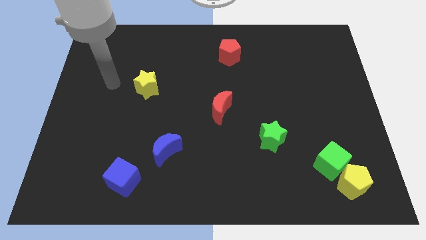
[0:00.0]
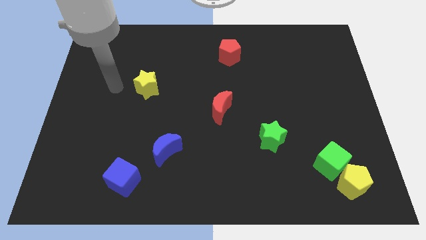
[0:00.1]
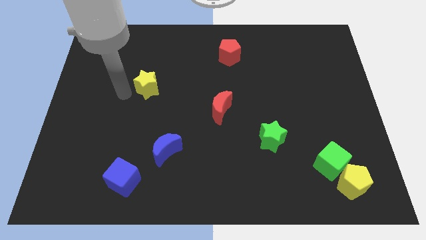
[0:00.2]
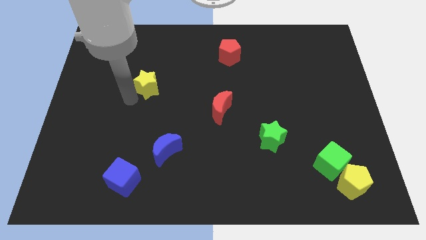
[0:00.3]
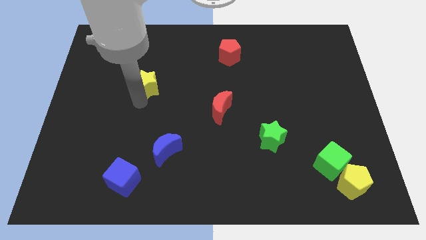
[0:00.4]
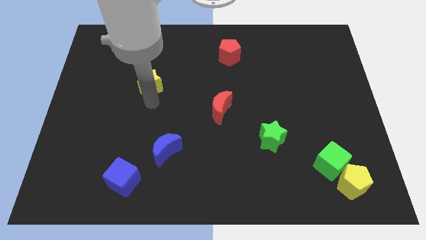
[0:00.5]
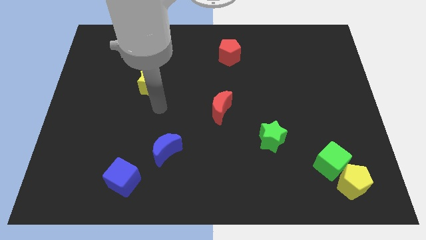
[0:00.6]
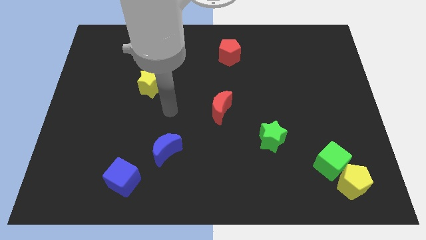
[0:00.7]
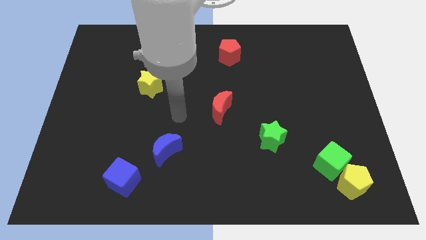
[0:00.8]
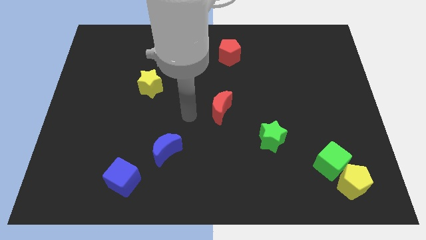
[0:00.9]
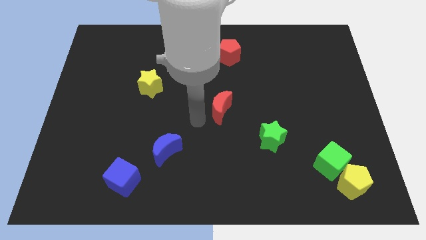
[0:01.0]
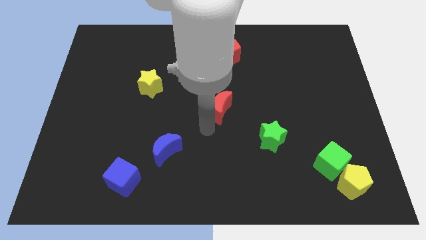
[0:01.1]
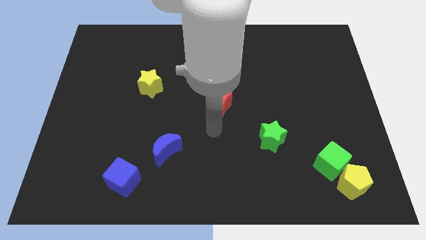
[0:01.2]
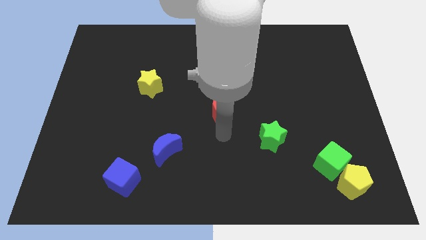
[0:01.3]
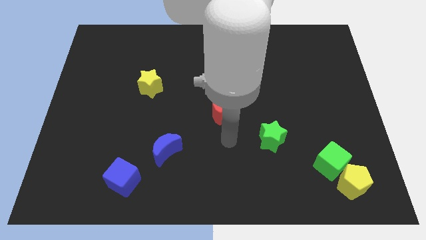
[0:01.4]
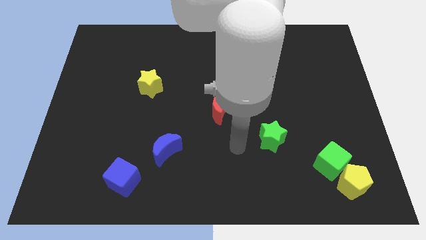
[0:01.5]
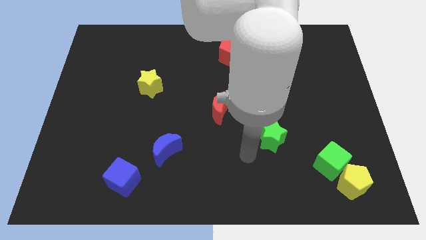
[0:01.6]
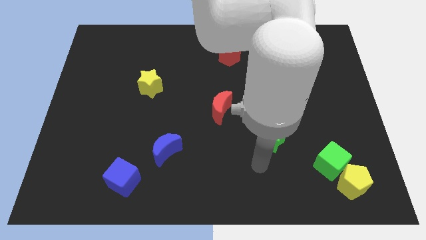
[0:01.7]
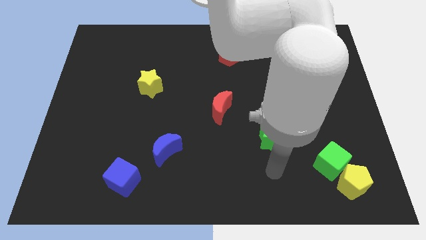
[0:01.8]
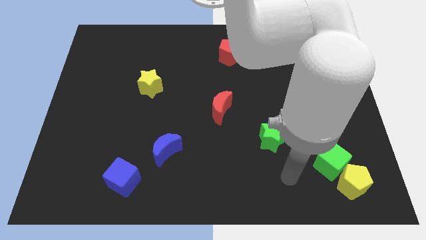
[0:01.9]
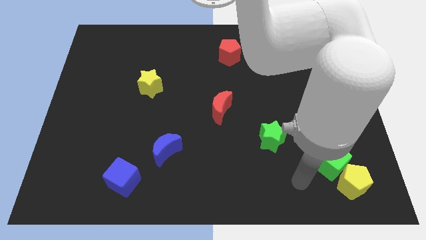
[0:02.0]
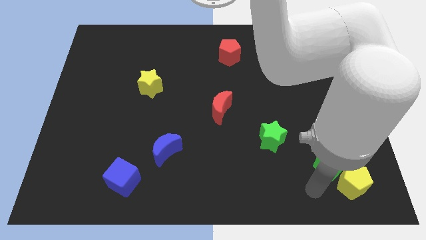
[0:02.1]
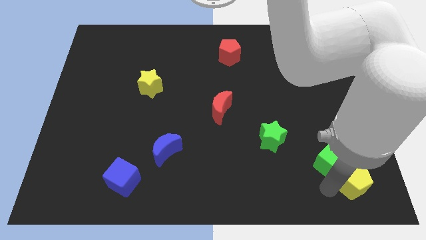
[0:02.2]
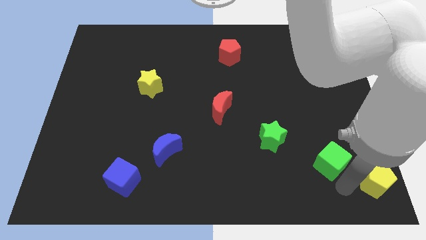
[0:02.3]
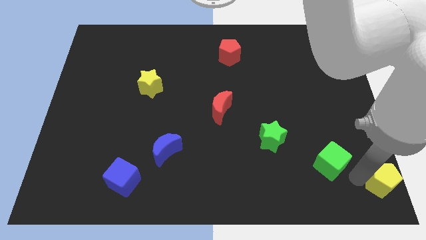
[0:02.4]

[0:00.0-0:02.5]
pull the green cube apart from the yellow pentagon

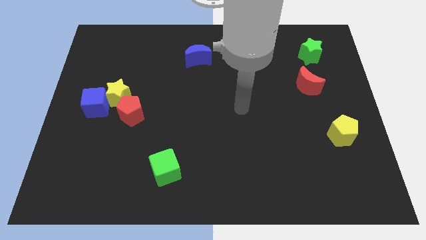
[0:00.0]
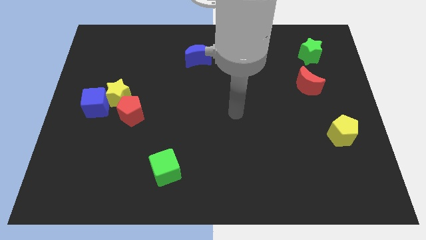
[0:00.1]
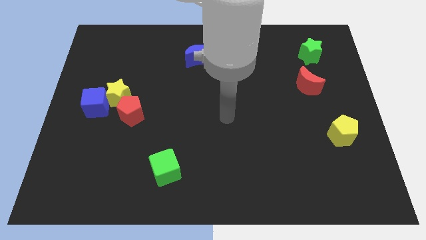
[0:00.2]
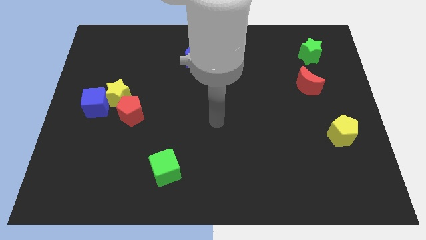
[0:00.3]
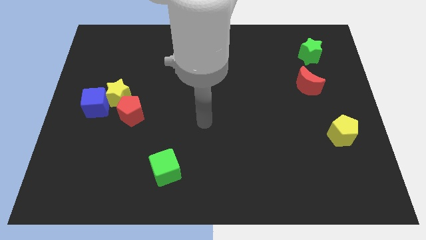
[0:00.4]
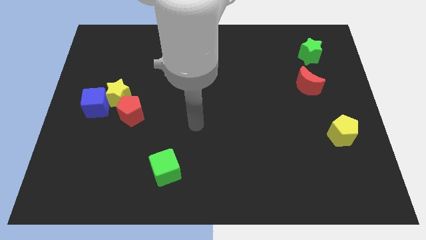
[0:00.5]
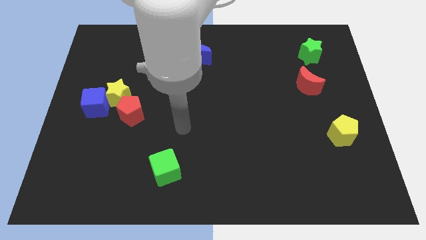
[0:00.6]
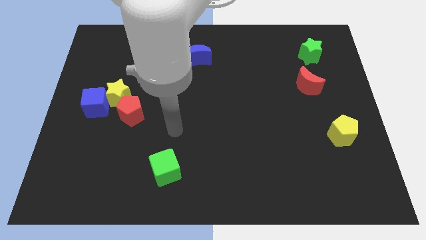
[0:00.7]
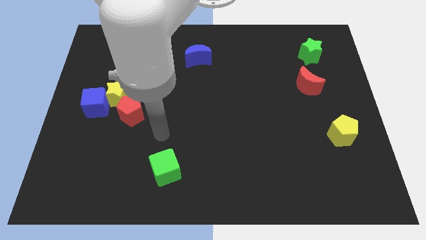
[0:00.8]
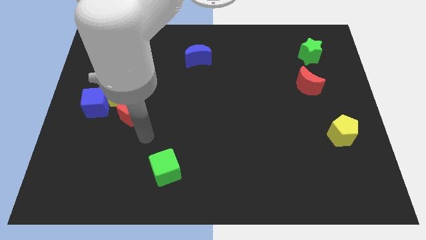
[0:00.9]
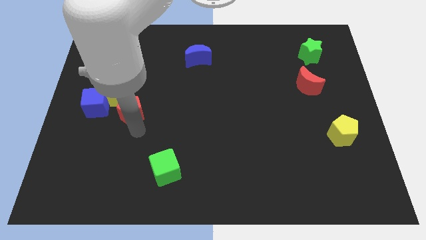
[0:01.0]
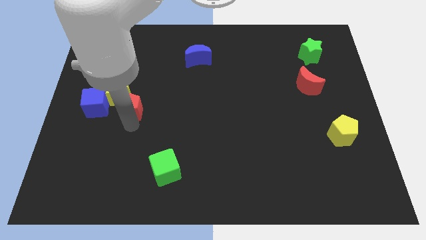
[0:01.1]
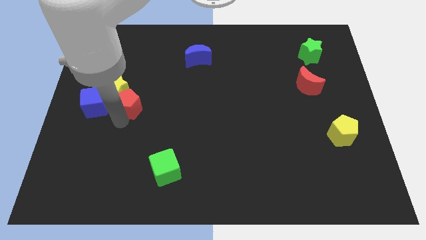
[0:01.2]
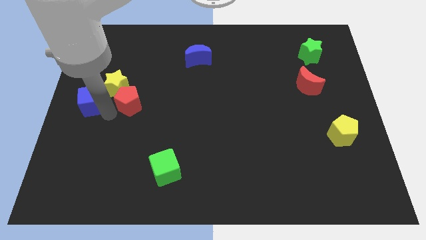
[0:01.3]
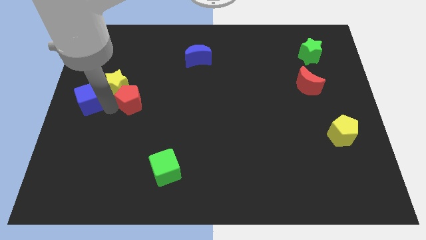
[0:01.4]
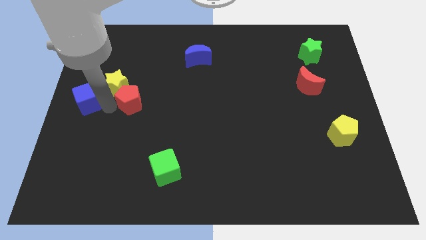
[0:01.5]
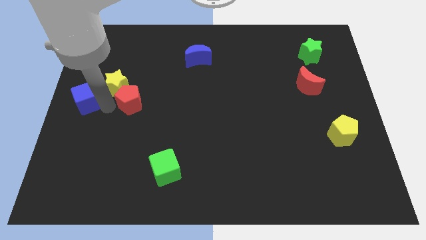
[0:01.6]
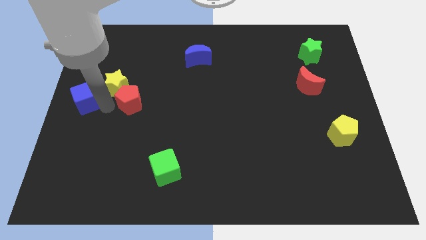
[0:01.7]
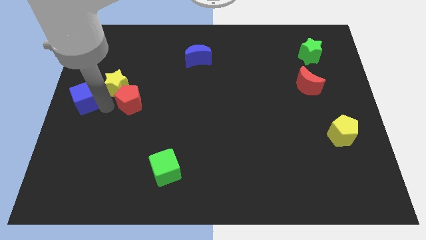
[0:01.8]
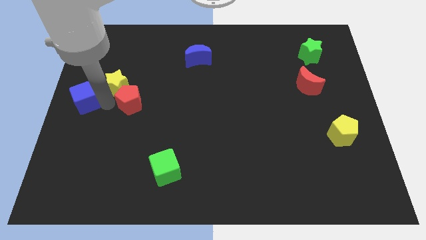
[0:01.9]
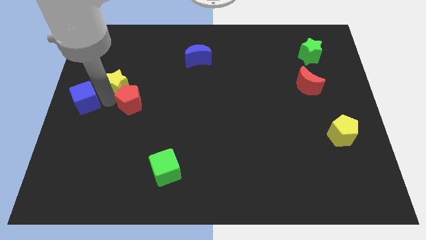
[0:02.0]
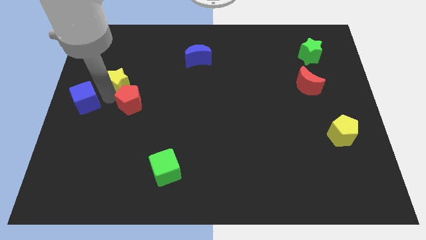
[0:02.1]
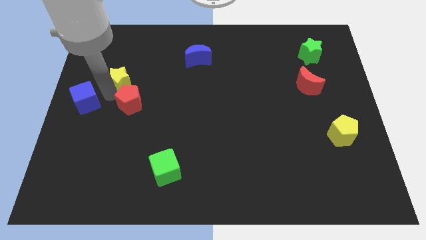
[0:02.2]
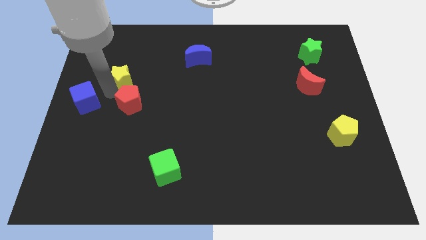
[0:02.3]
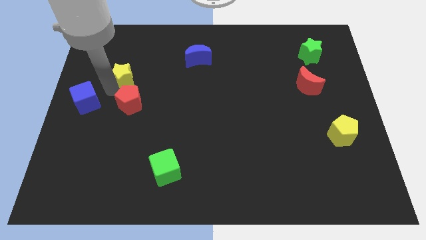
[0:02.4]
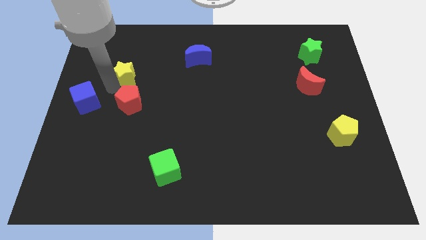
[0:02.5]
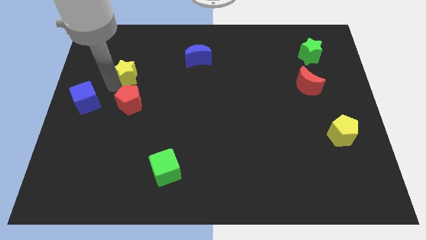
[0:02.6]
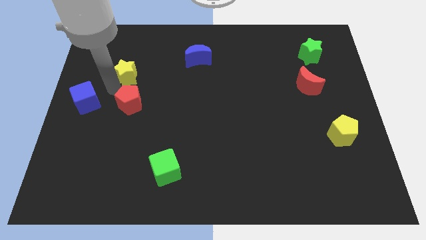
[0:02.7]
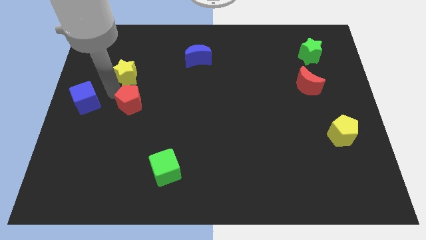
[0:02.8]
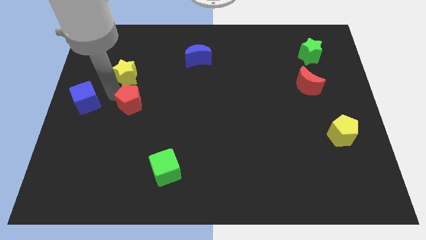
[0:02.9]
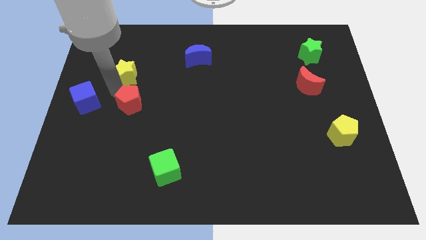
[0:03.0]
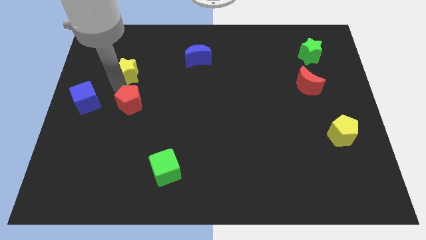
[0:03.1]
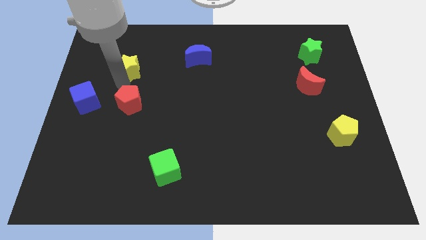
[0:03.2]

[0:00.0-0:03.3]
separate the yellow star from the blue cube and red pentagon

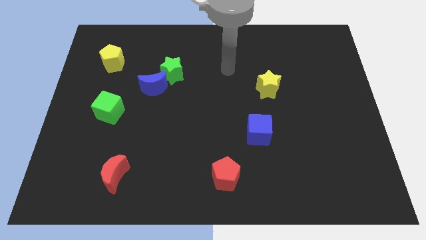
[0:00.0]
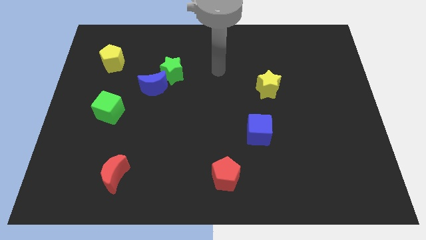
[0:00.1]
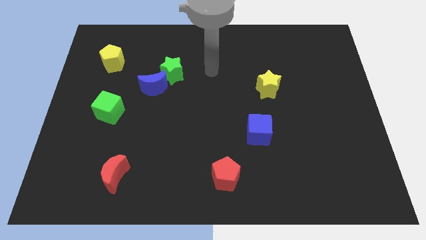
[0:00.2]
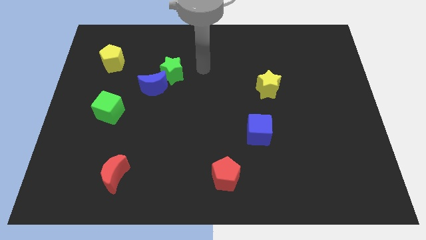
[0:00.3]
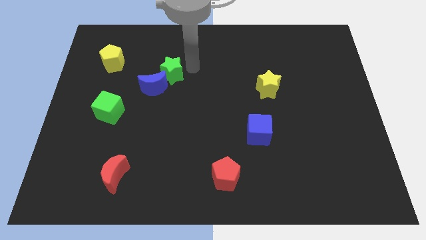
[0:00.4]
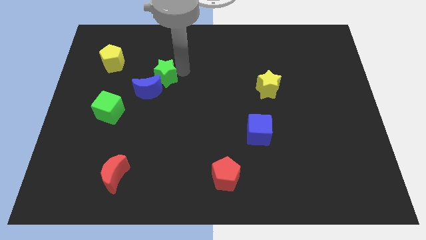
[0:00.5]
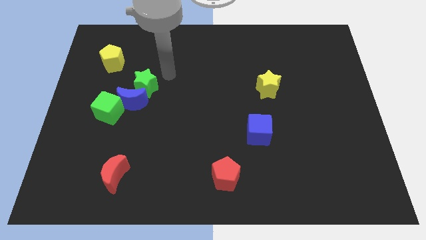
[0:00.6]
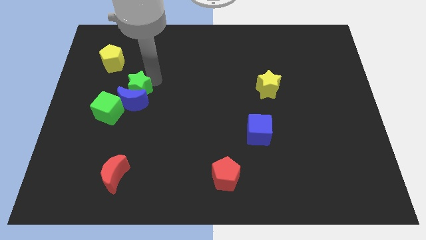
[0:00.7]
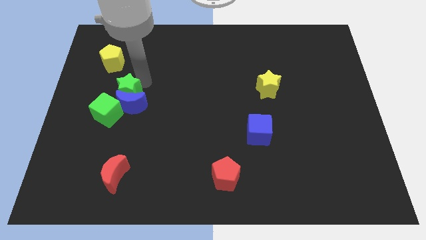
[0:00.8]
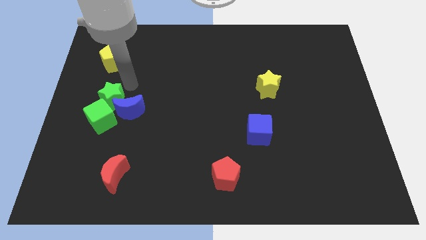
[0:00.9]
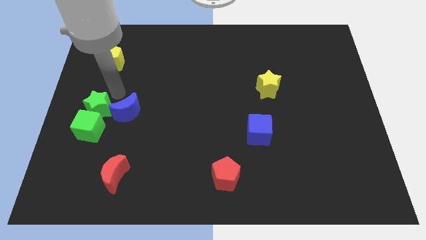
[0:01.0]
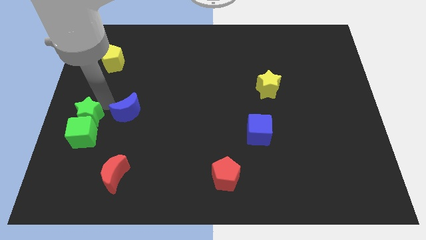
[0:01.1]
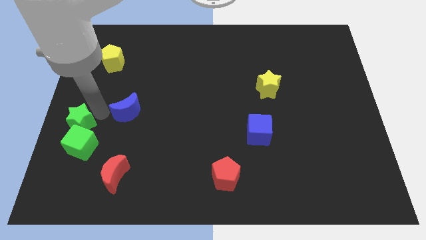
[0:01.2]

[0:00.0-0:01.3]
pull the blue moon apart from the green star

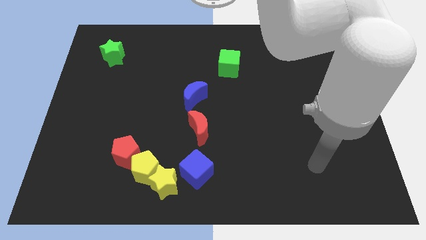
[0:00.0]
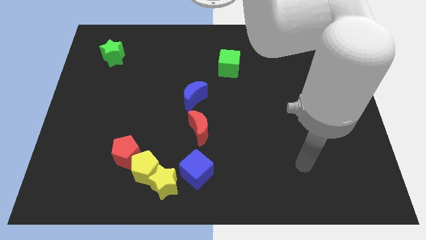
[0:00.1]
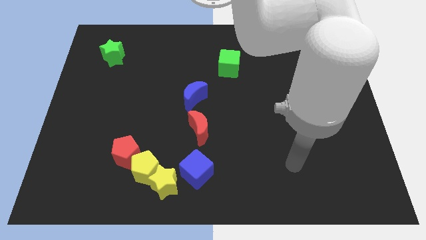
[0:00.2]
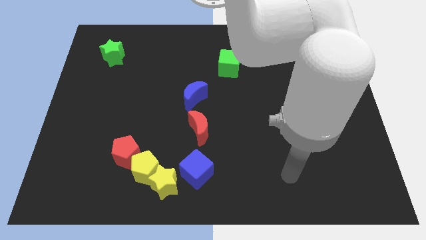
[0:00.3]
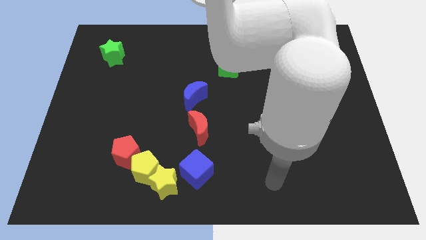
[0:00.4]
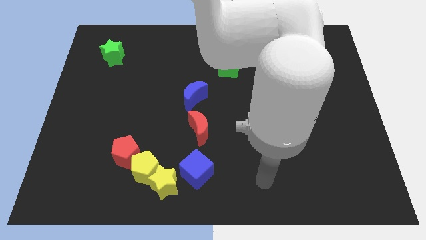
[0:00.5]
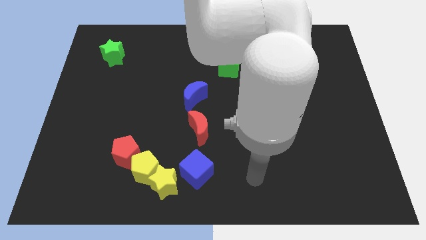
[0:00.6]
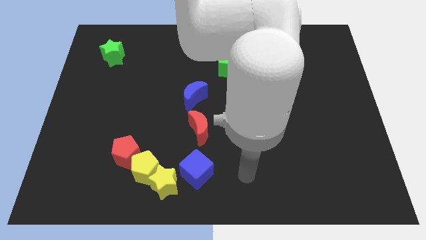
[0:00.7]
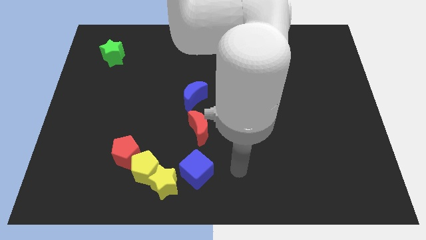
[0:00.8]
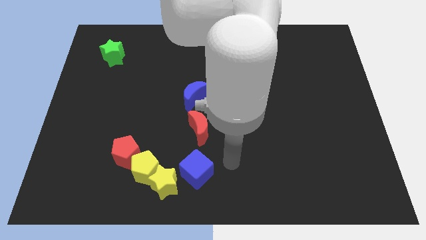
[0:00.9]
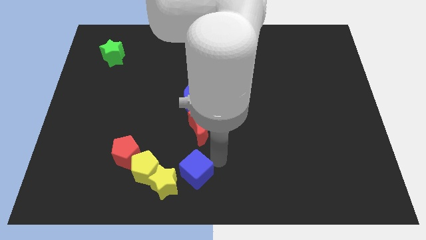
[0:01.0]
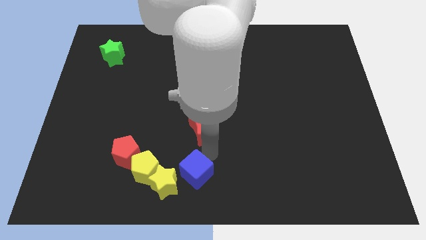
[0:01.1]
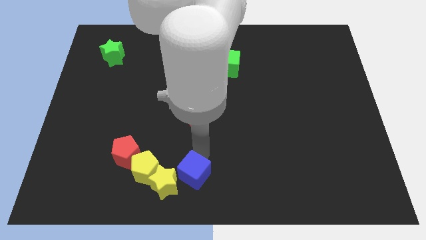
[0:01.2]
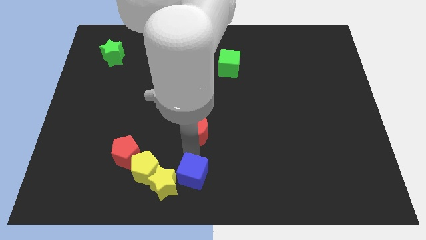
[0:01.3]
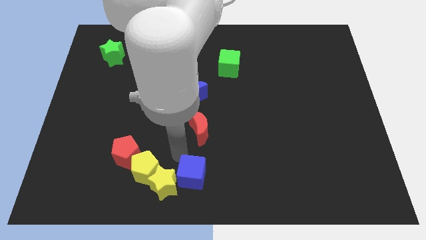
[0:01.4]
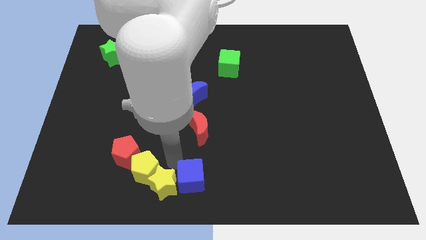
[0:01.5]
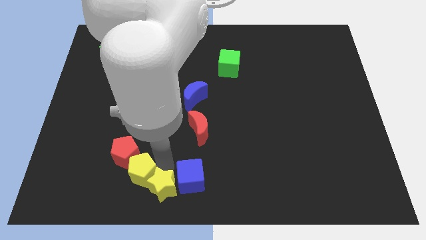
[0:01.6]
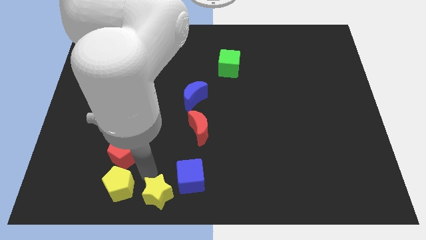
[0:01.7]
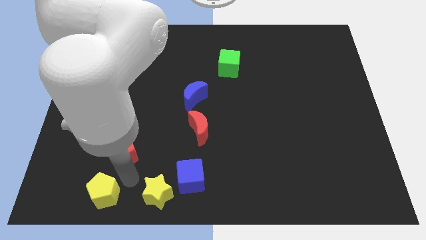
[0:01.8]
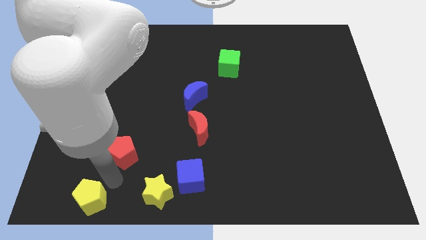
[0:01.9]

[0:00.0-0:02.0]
pull the red pentagon apart from the yellow pentagon

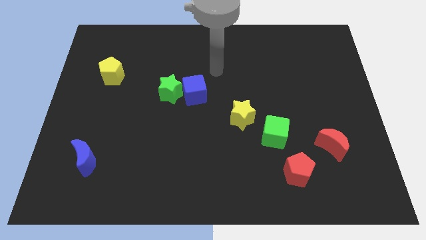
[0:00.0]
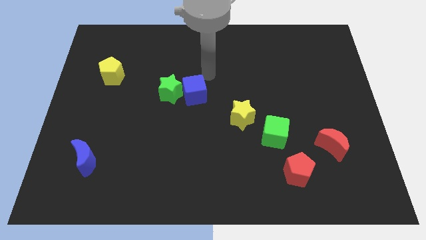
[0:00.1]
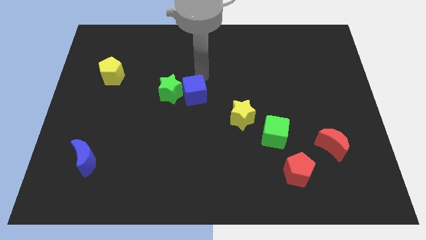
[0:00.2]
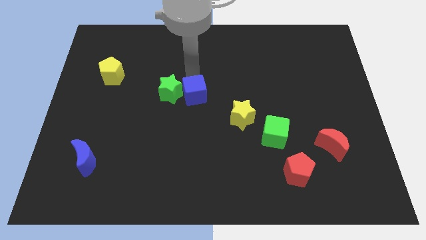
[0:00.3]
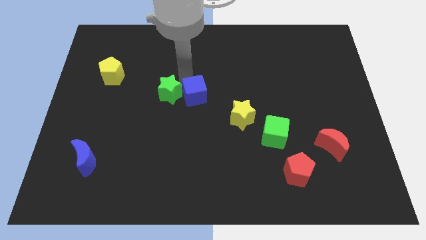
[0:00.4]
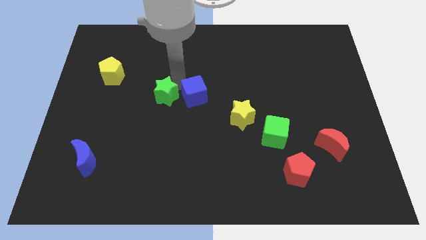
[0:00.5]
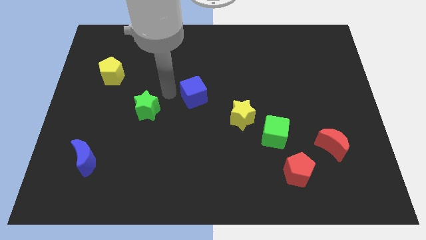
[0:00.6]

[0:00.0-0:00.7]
move the blue cube away from the green star
